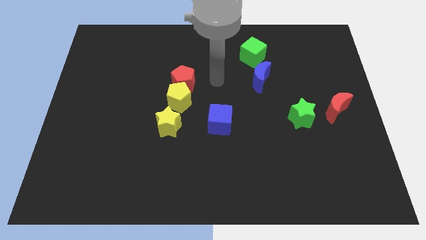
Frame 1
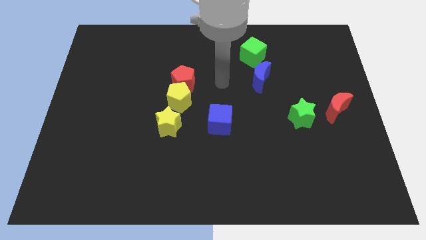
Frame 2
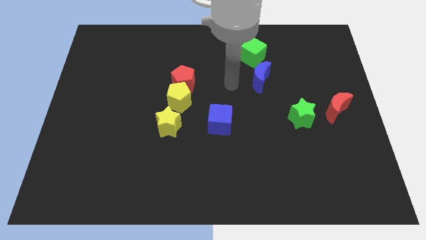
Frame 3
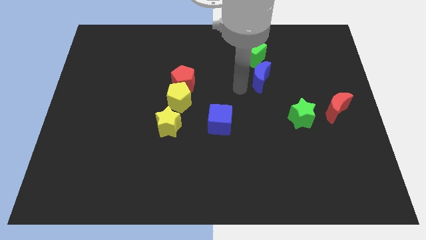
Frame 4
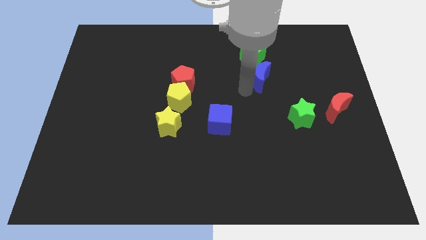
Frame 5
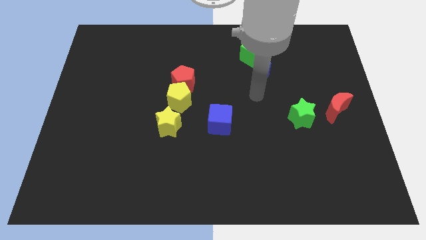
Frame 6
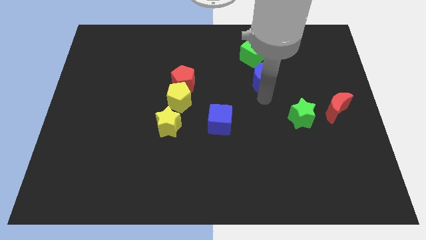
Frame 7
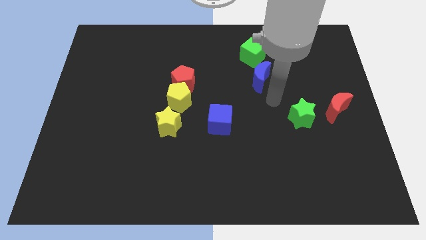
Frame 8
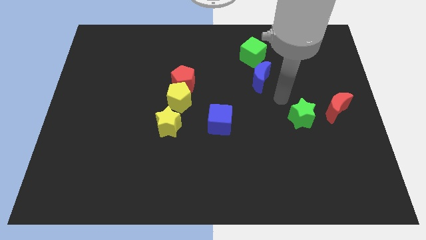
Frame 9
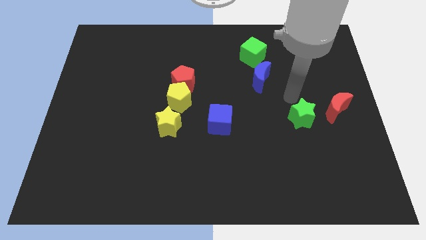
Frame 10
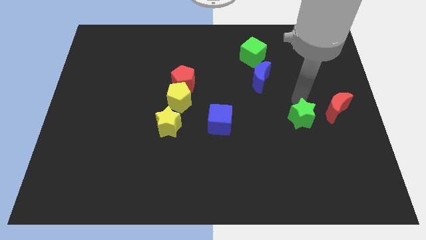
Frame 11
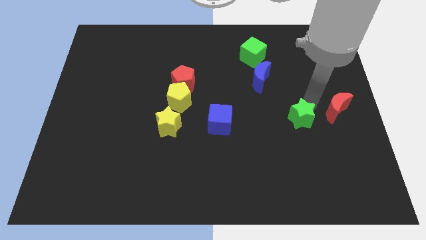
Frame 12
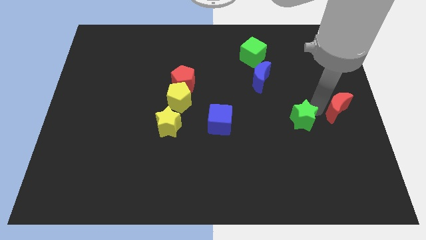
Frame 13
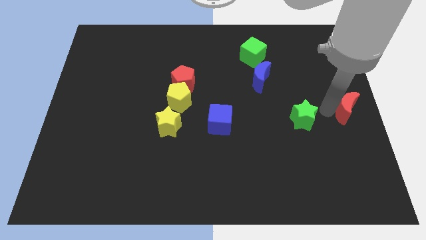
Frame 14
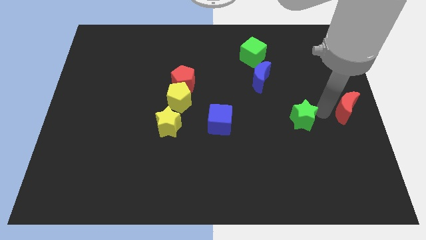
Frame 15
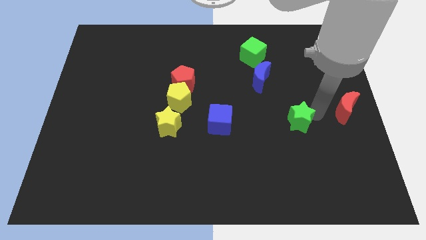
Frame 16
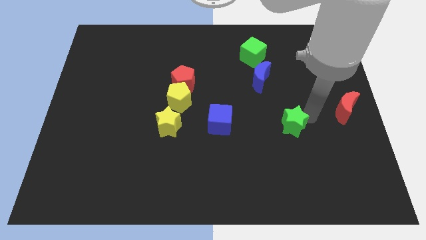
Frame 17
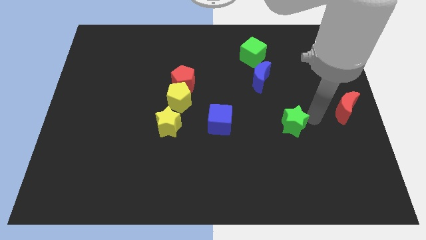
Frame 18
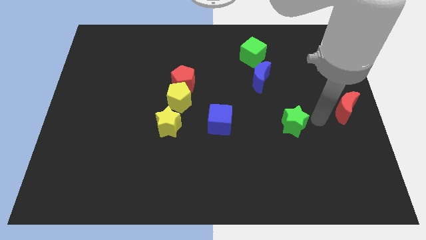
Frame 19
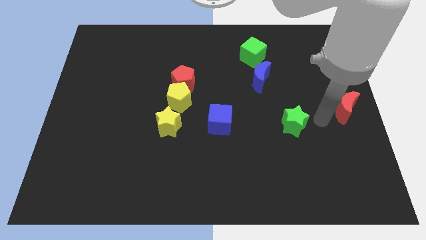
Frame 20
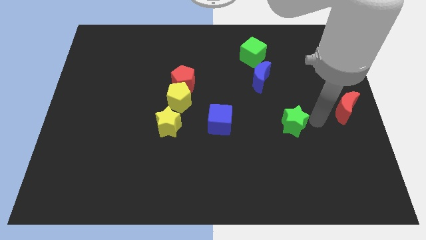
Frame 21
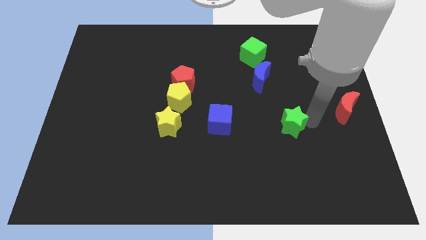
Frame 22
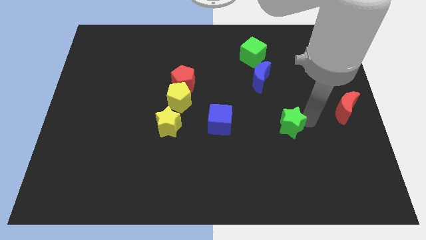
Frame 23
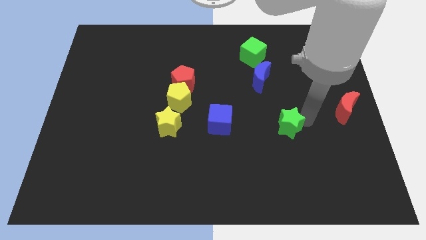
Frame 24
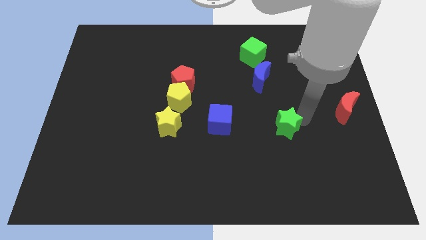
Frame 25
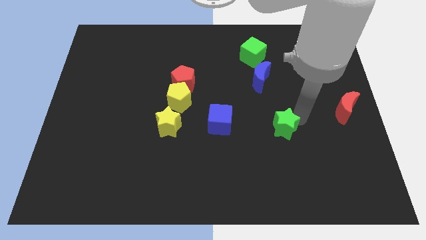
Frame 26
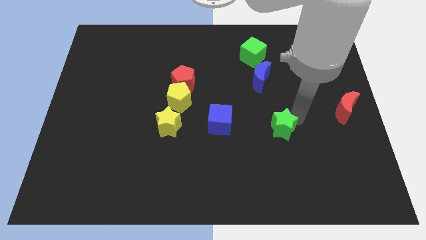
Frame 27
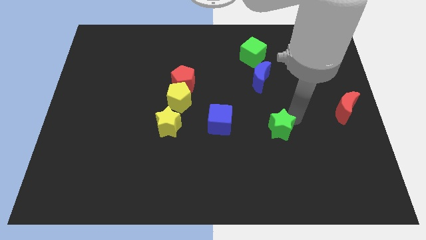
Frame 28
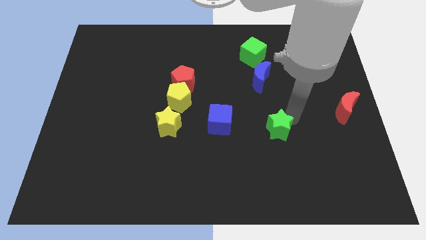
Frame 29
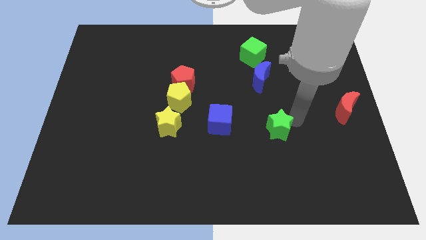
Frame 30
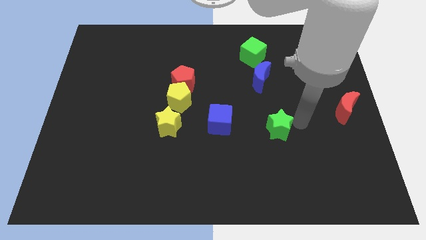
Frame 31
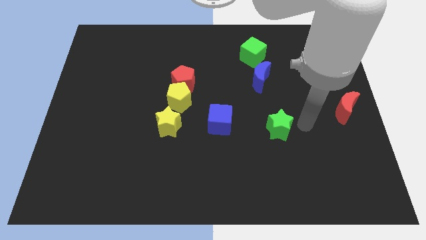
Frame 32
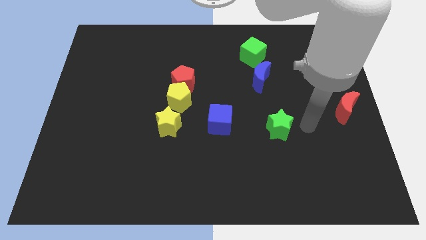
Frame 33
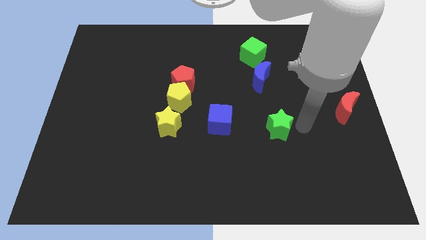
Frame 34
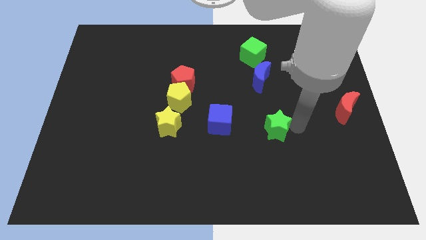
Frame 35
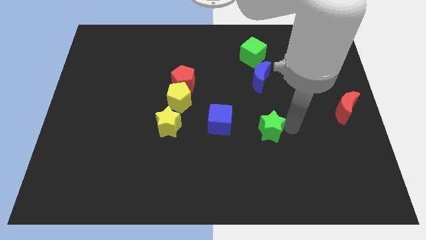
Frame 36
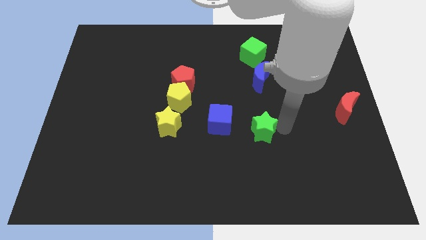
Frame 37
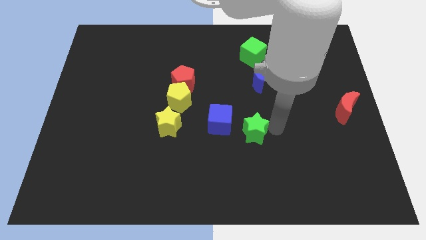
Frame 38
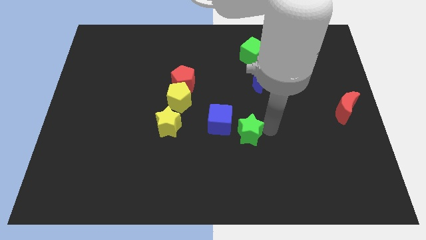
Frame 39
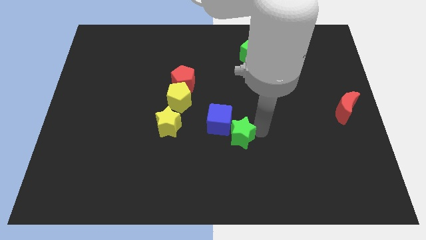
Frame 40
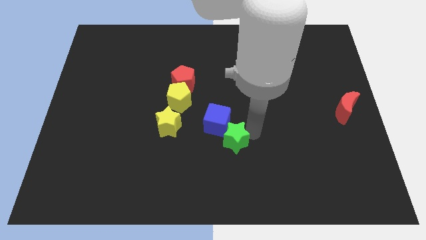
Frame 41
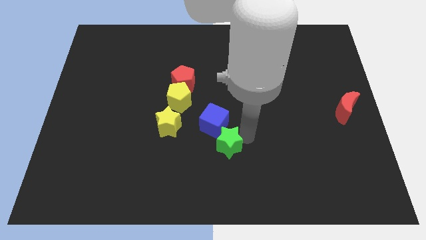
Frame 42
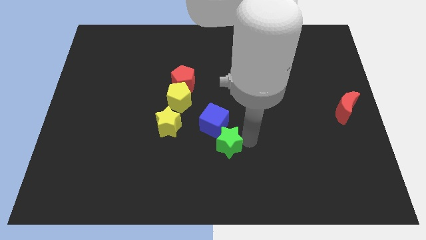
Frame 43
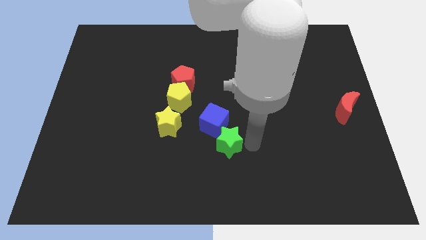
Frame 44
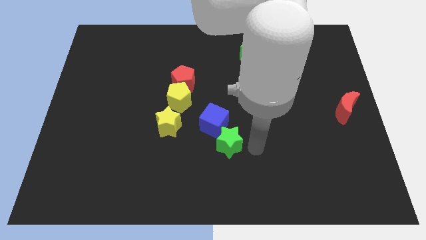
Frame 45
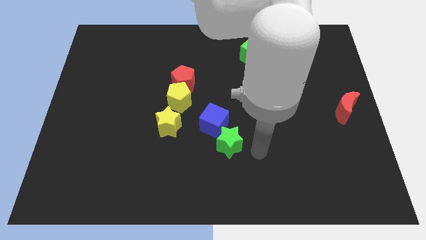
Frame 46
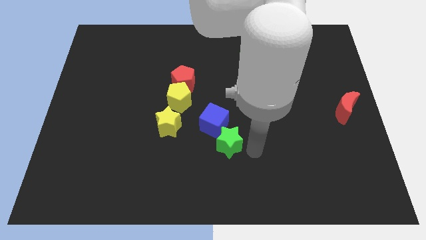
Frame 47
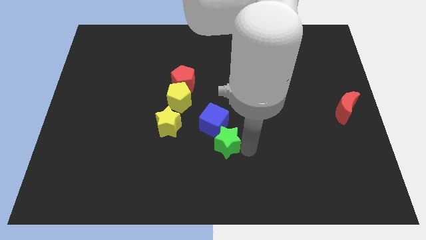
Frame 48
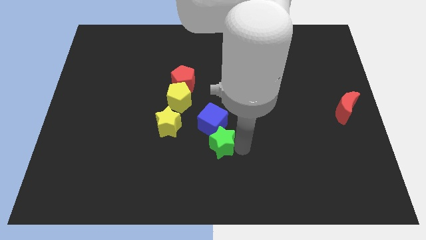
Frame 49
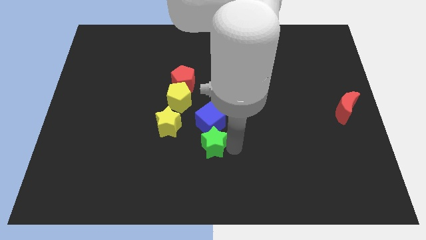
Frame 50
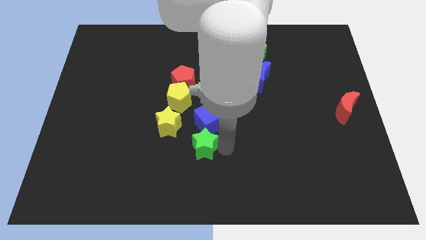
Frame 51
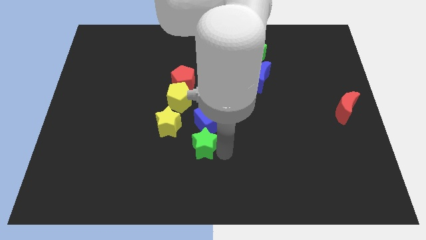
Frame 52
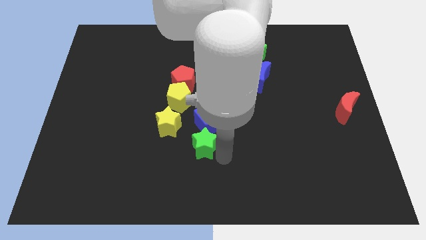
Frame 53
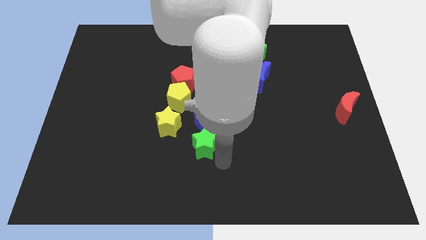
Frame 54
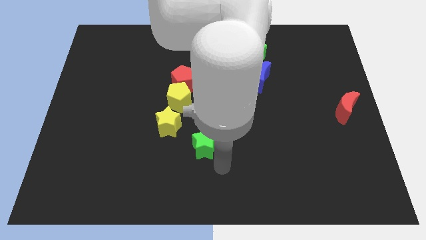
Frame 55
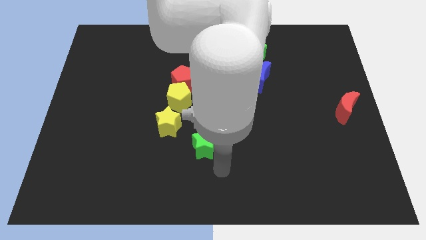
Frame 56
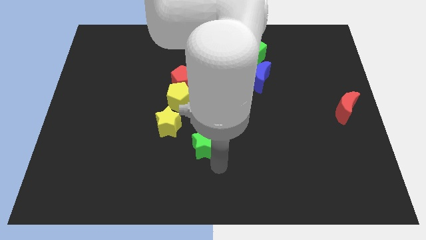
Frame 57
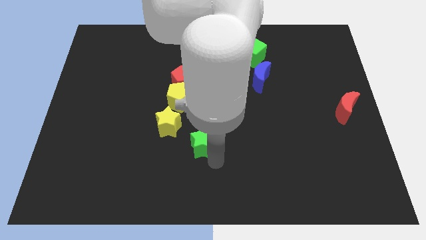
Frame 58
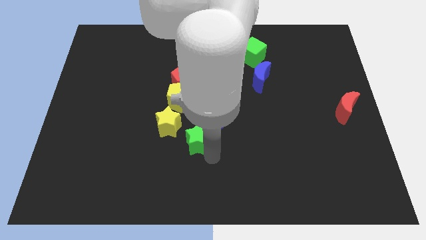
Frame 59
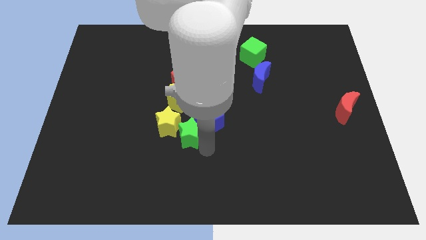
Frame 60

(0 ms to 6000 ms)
slide the green star to the yellow star

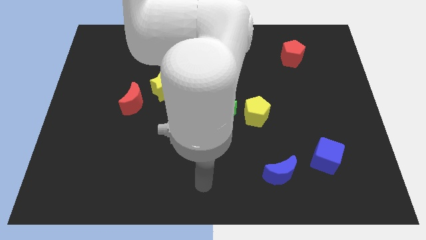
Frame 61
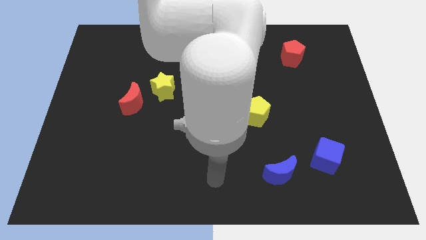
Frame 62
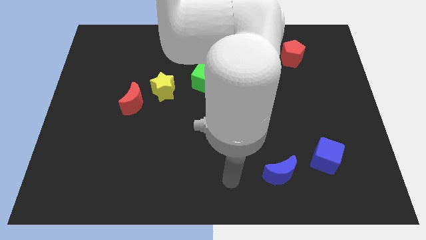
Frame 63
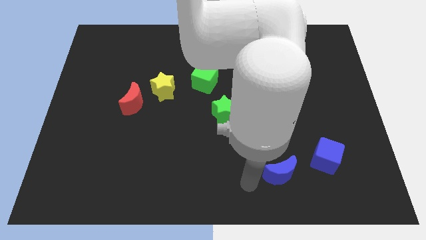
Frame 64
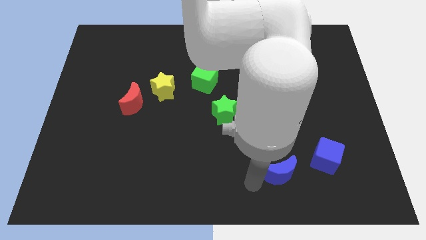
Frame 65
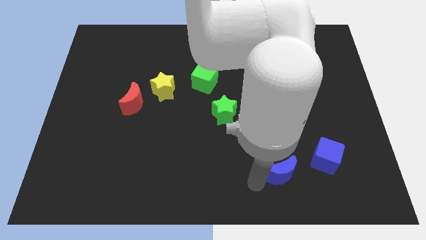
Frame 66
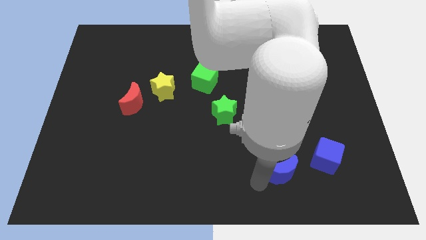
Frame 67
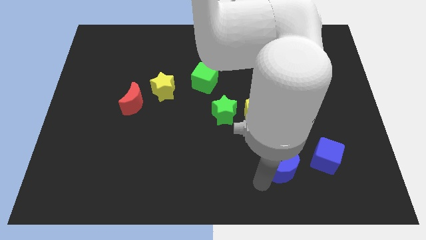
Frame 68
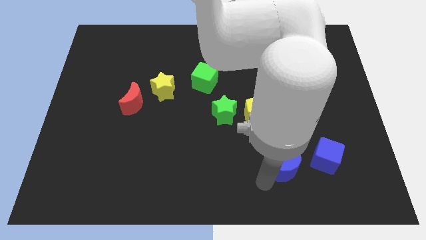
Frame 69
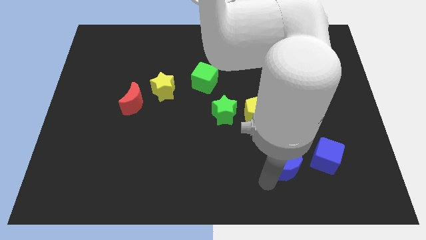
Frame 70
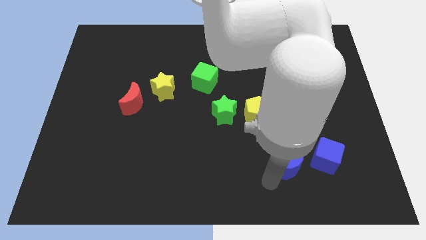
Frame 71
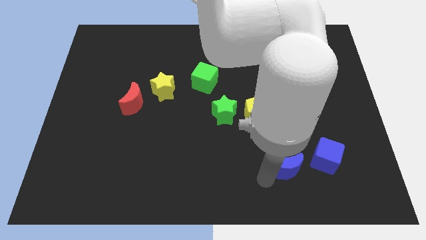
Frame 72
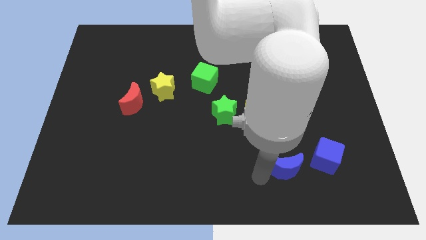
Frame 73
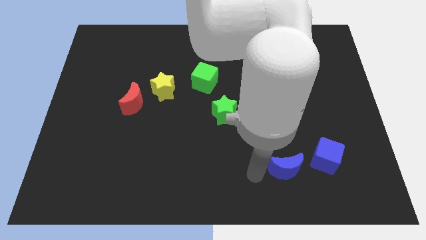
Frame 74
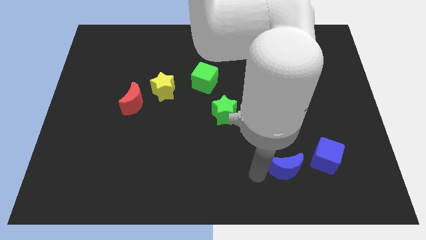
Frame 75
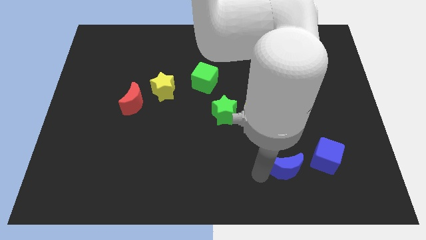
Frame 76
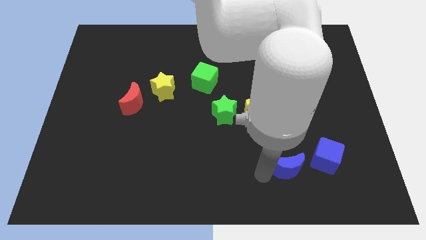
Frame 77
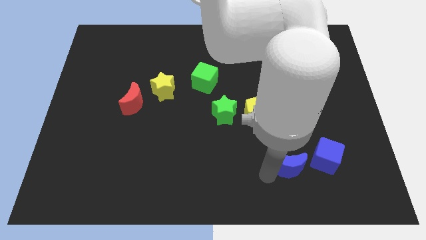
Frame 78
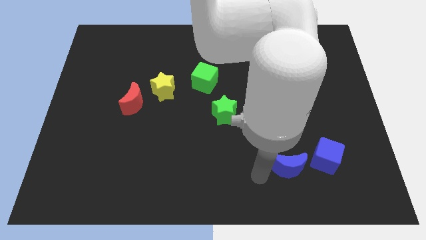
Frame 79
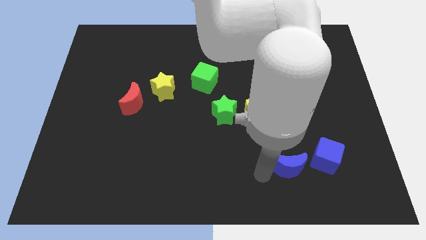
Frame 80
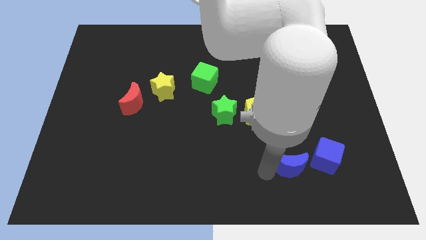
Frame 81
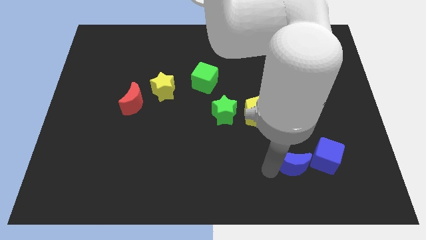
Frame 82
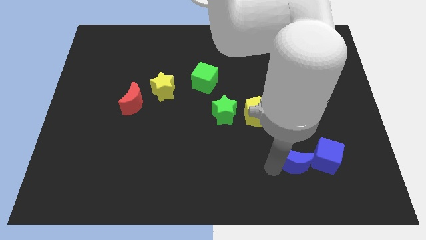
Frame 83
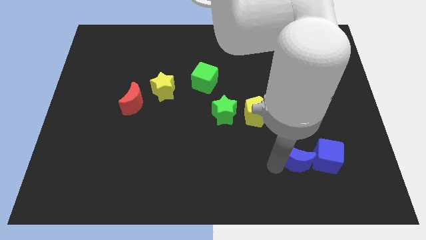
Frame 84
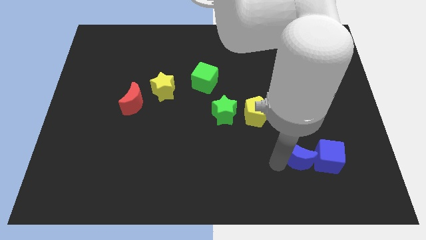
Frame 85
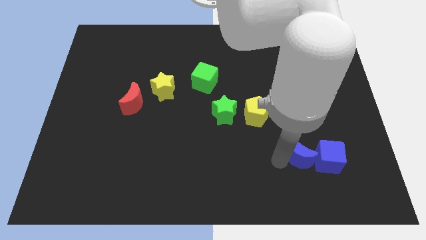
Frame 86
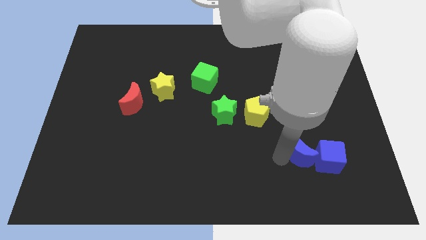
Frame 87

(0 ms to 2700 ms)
put the blue moon to the blue cube
